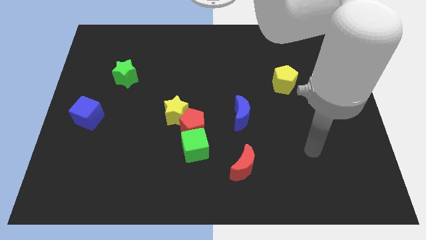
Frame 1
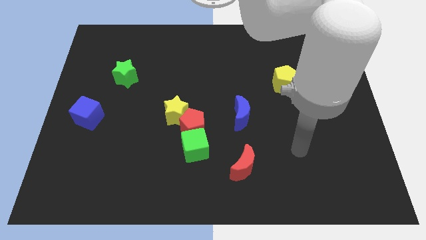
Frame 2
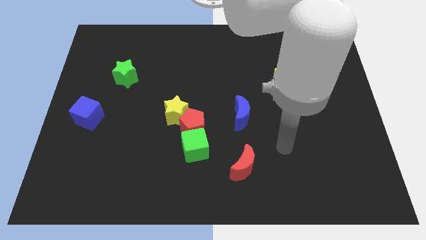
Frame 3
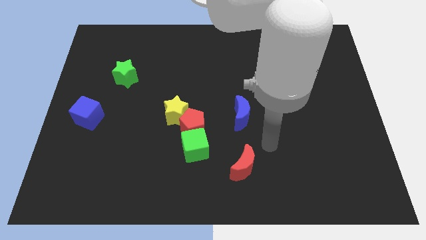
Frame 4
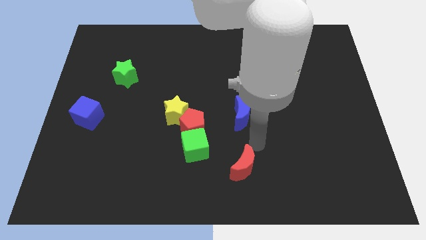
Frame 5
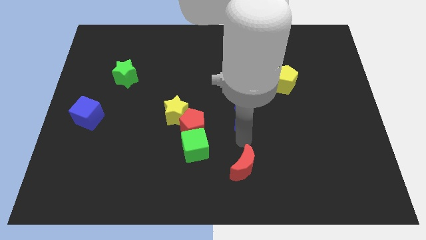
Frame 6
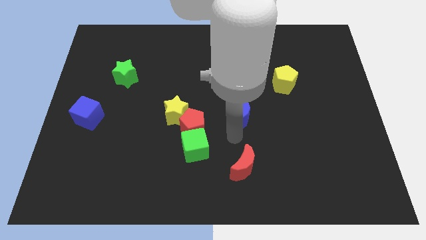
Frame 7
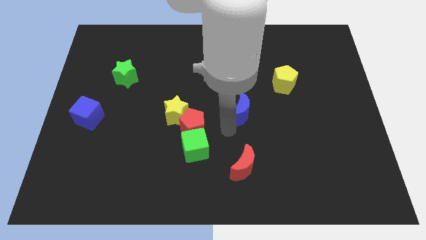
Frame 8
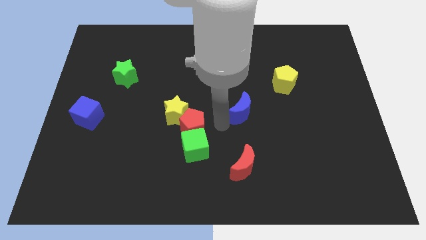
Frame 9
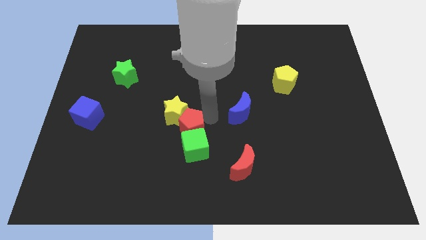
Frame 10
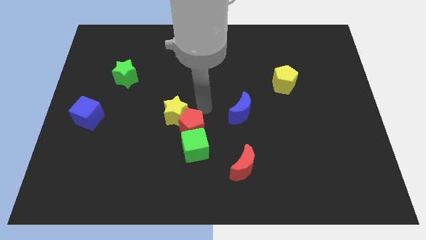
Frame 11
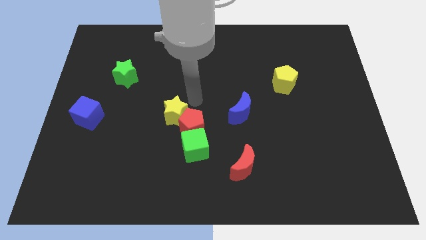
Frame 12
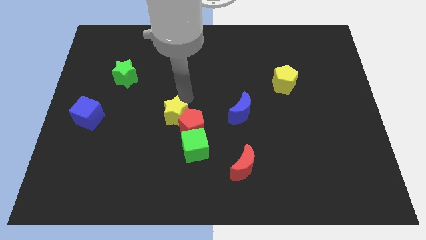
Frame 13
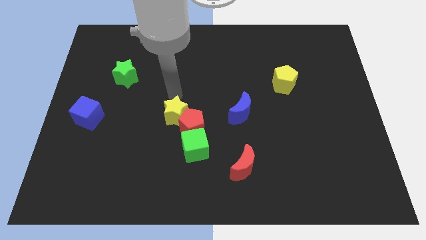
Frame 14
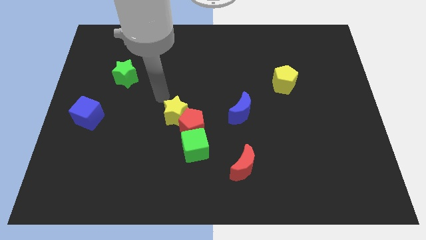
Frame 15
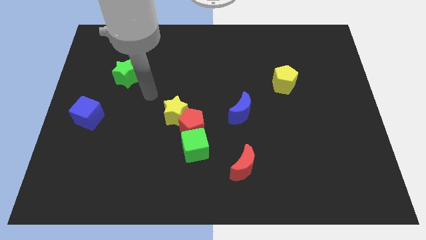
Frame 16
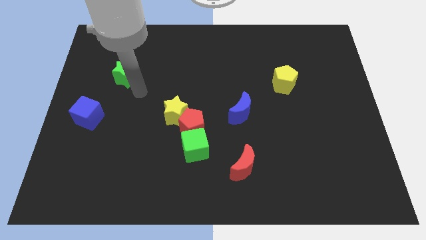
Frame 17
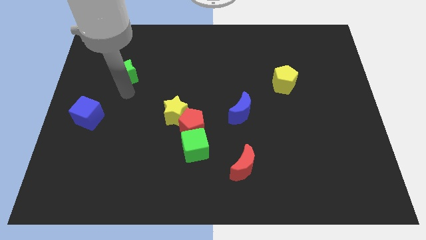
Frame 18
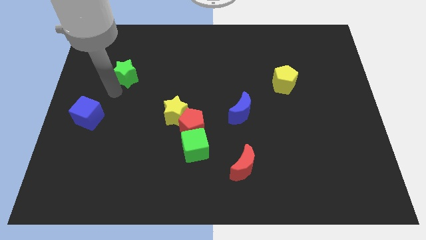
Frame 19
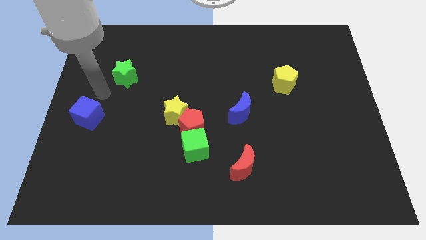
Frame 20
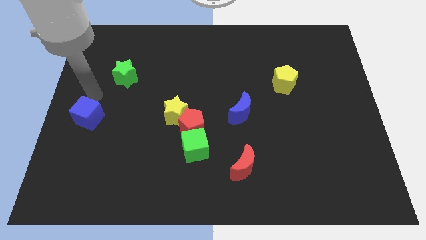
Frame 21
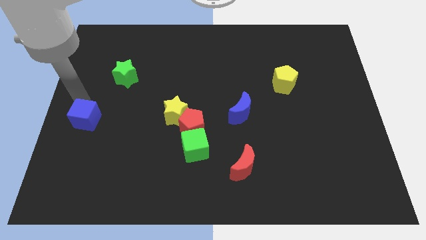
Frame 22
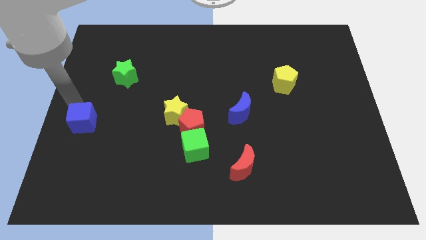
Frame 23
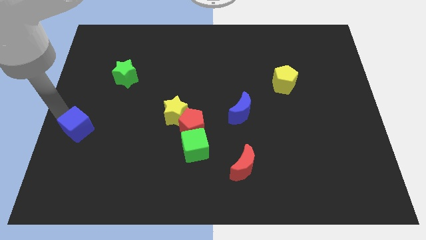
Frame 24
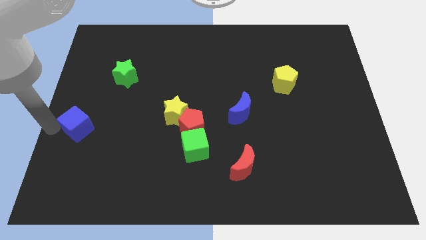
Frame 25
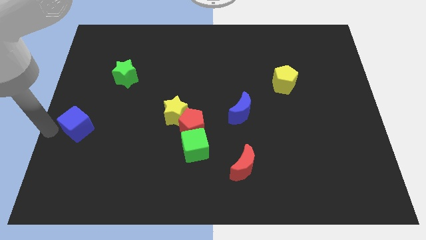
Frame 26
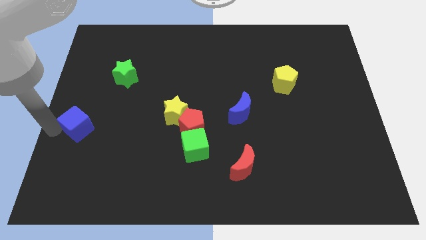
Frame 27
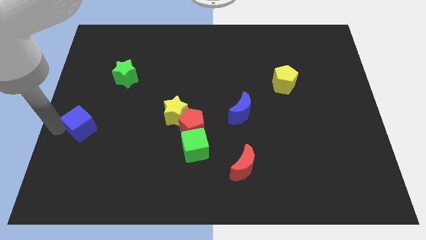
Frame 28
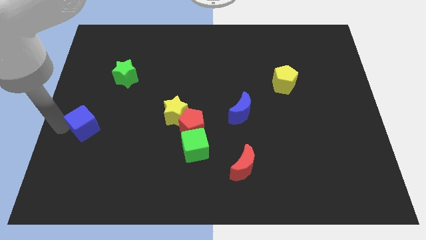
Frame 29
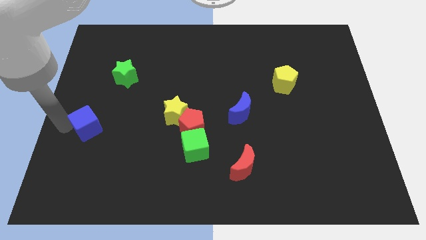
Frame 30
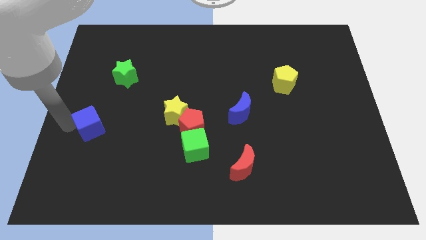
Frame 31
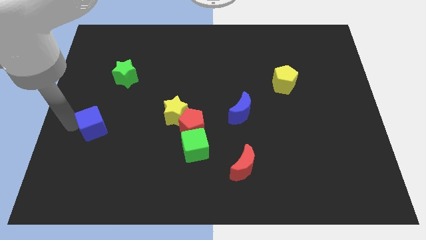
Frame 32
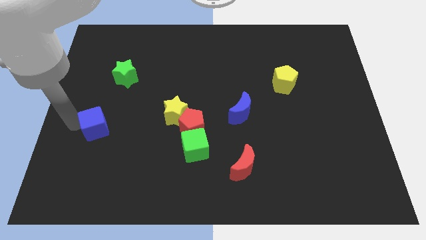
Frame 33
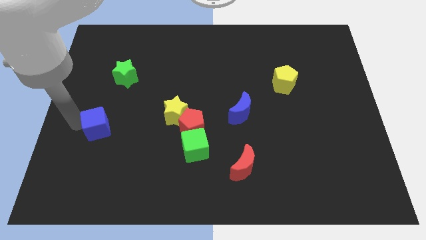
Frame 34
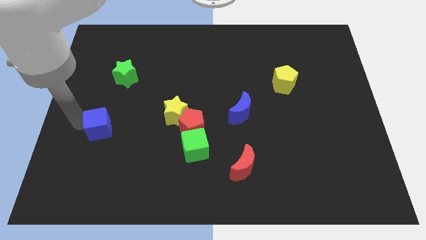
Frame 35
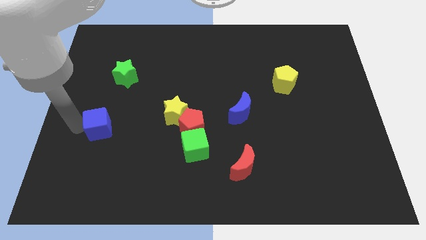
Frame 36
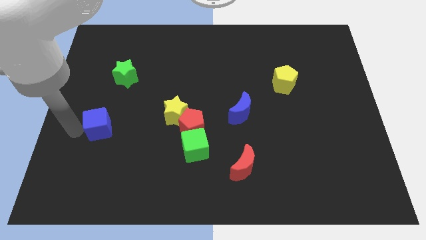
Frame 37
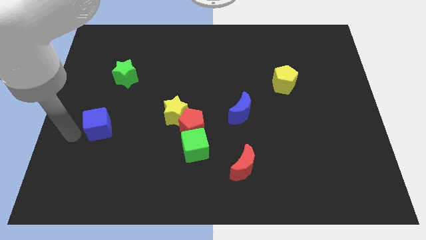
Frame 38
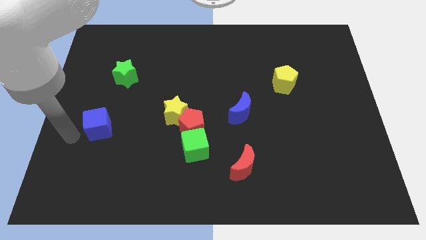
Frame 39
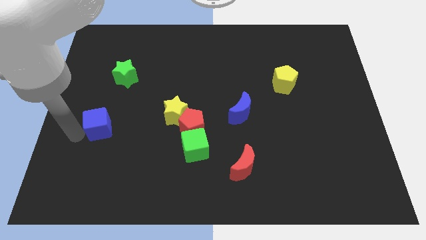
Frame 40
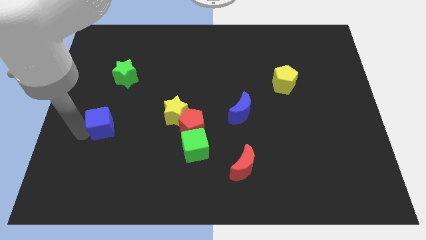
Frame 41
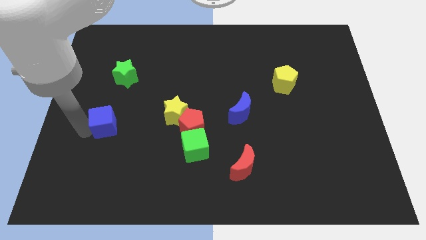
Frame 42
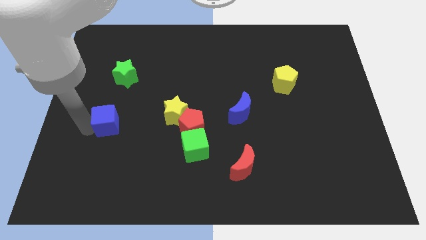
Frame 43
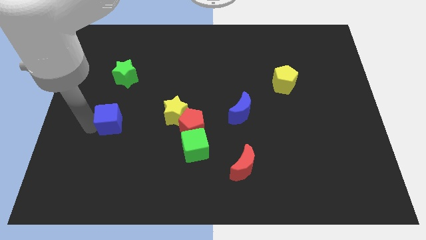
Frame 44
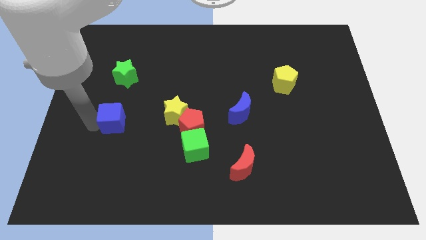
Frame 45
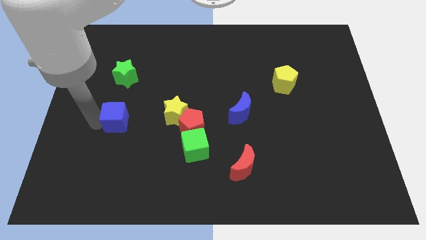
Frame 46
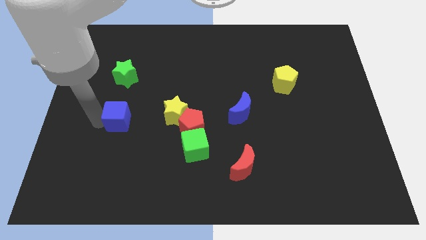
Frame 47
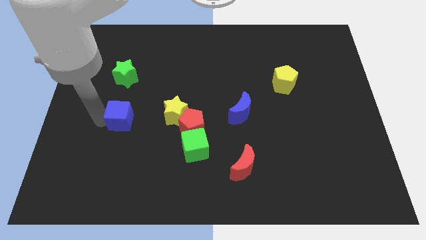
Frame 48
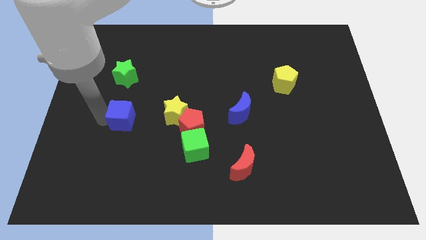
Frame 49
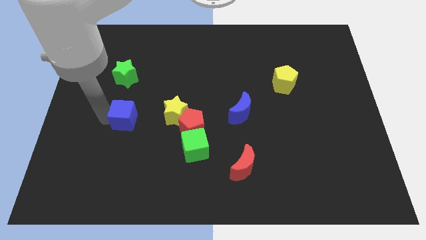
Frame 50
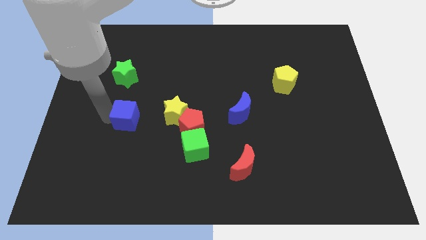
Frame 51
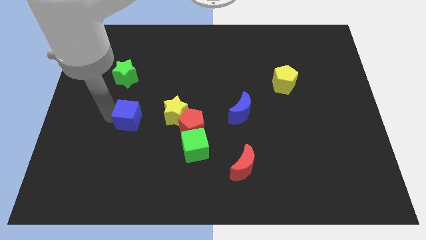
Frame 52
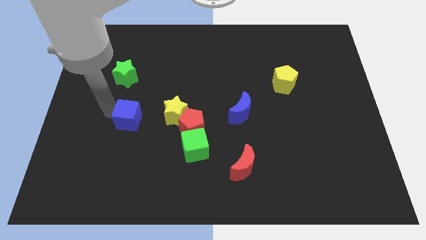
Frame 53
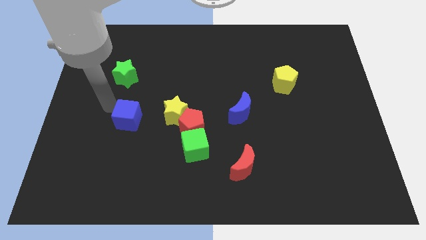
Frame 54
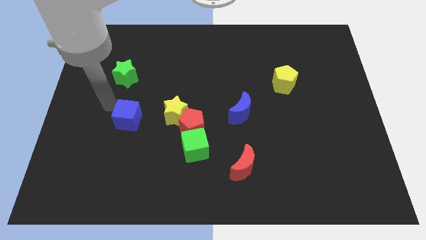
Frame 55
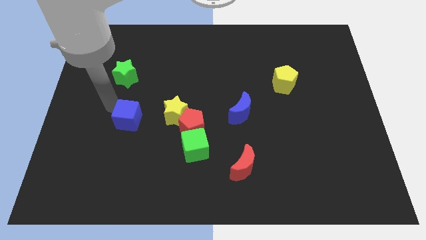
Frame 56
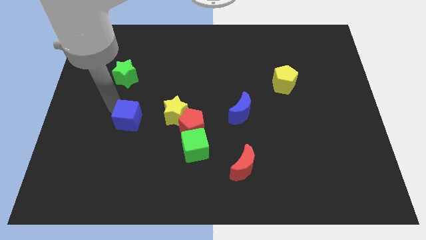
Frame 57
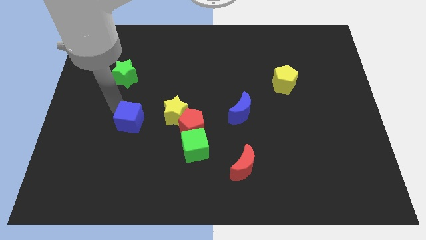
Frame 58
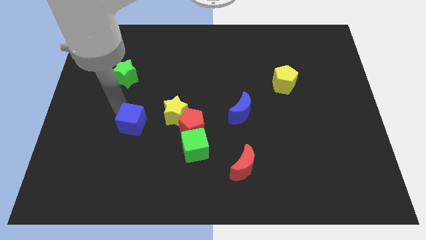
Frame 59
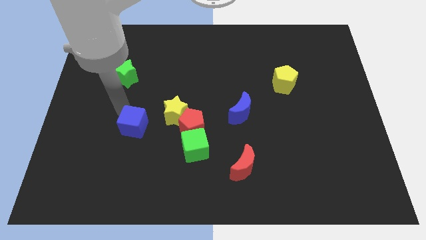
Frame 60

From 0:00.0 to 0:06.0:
put the blue cube to the bottom left side of the yellow star

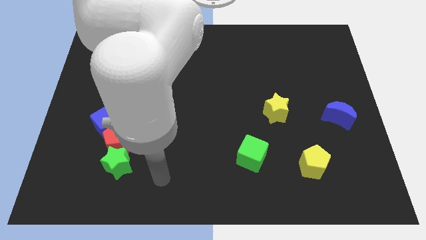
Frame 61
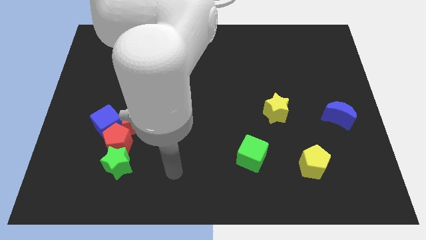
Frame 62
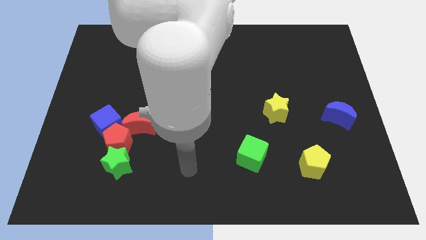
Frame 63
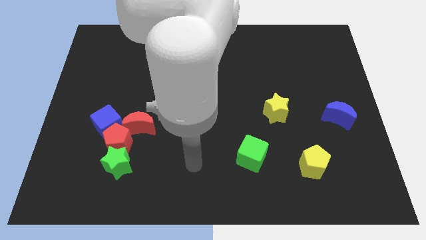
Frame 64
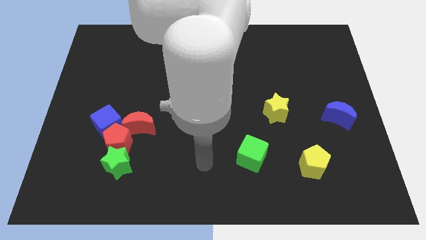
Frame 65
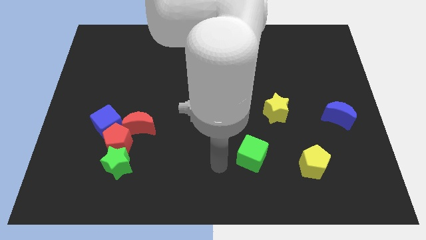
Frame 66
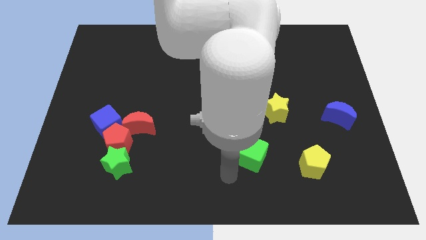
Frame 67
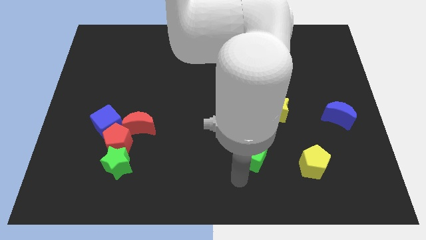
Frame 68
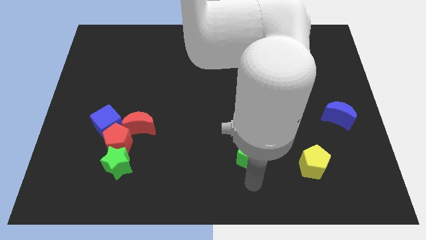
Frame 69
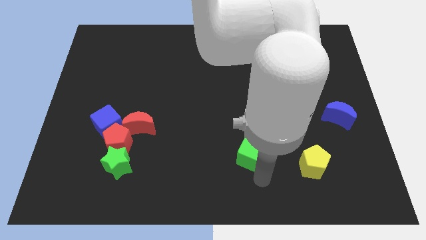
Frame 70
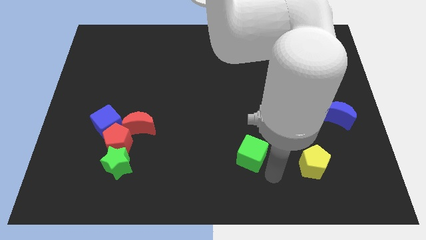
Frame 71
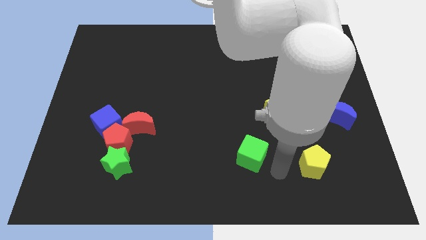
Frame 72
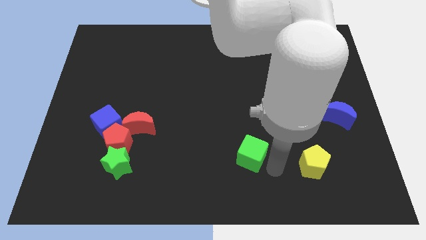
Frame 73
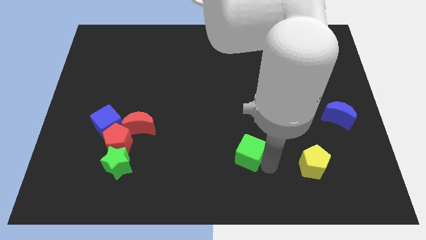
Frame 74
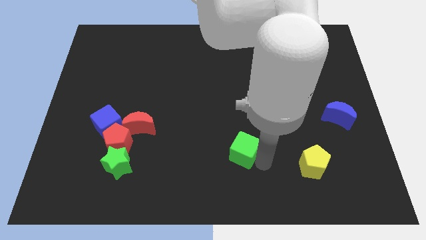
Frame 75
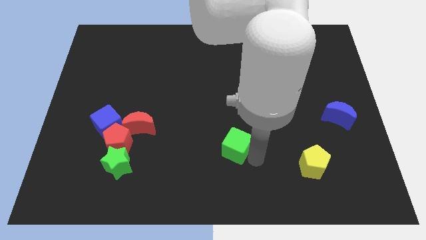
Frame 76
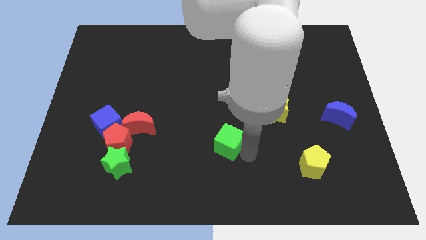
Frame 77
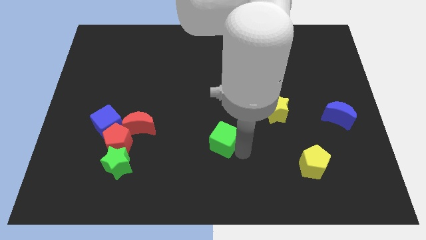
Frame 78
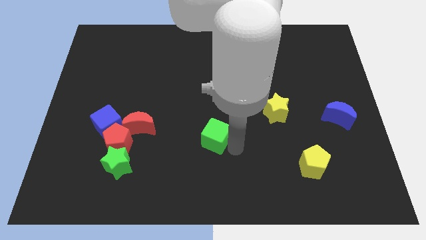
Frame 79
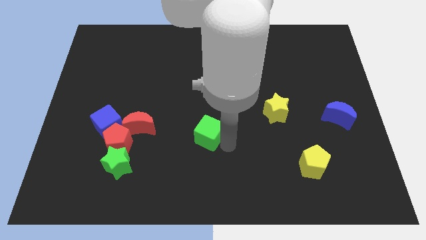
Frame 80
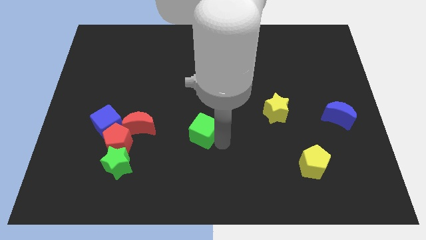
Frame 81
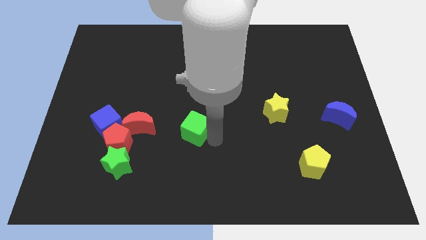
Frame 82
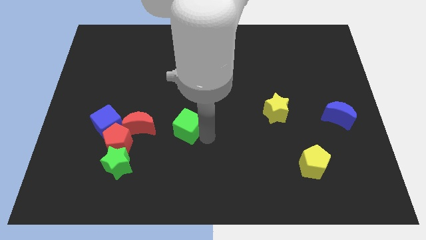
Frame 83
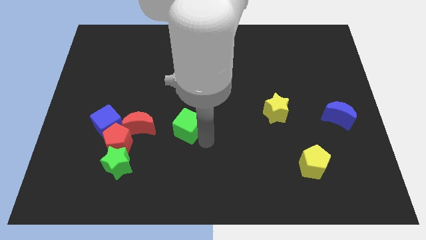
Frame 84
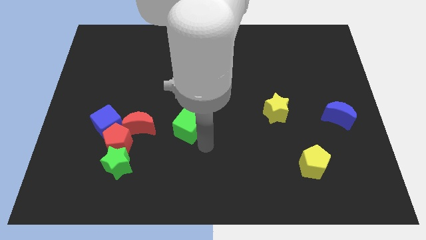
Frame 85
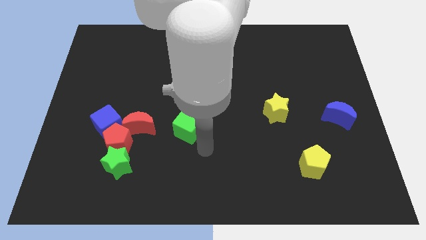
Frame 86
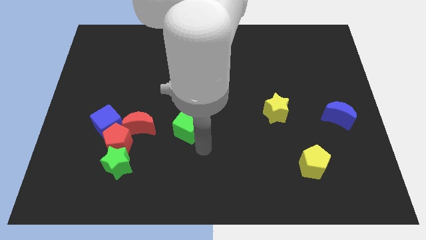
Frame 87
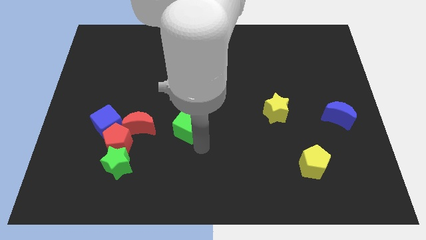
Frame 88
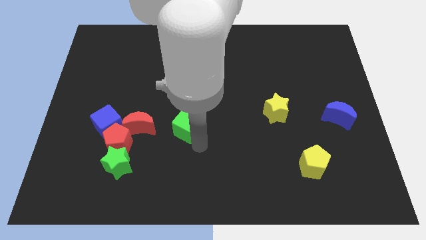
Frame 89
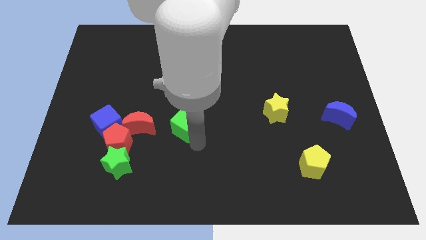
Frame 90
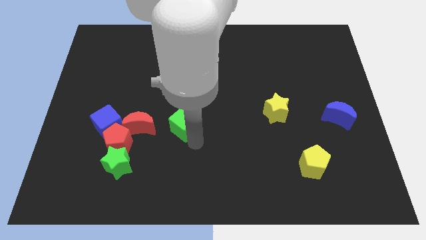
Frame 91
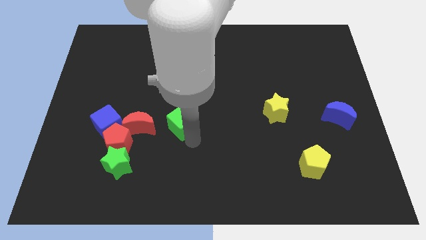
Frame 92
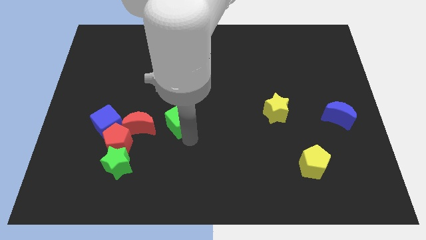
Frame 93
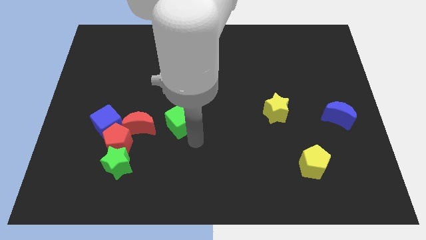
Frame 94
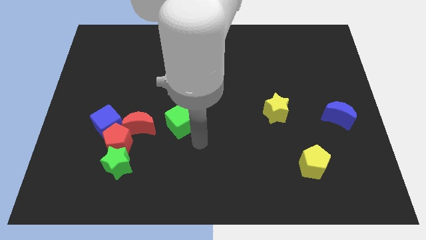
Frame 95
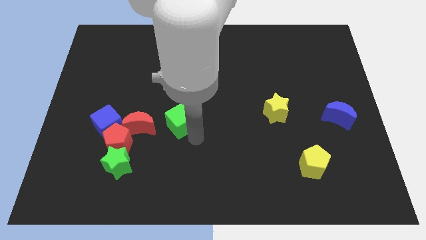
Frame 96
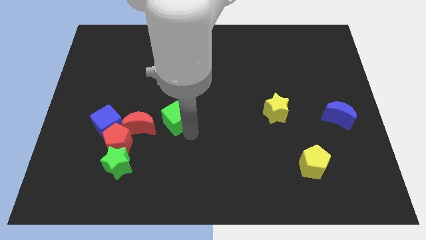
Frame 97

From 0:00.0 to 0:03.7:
slide the green cube diagonally up and to the right of the red moon
